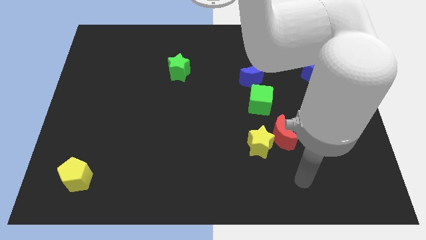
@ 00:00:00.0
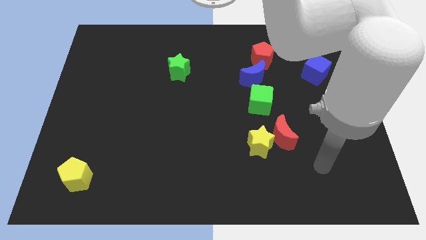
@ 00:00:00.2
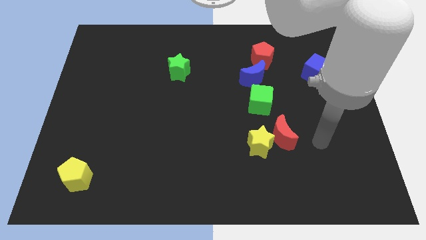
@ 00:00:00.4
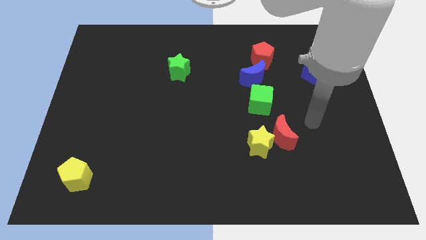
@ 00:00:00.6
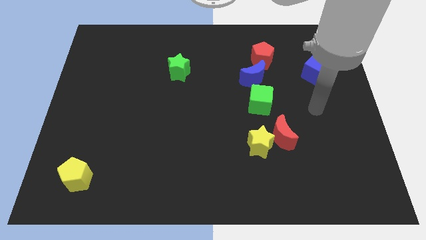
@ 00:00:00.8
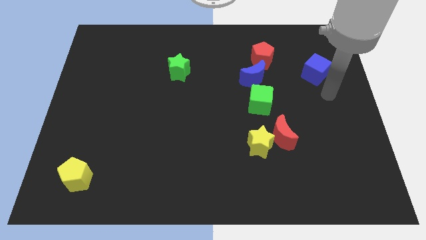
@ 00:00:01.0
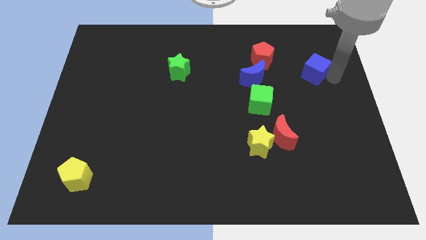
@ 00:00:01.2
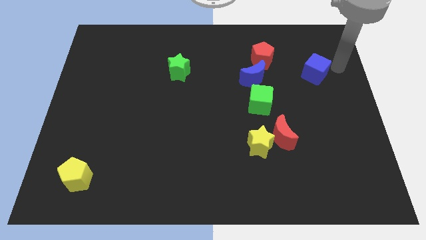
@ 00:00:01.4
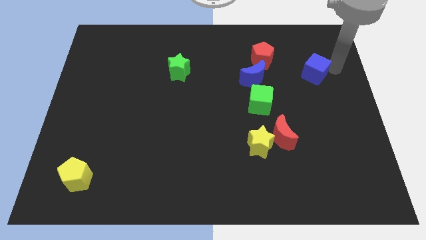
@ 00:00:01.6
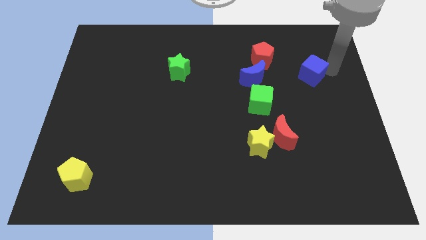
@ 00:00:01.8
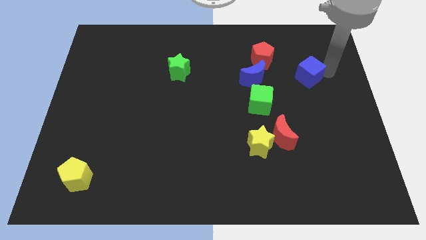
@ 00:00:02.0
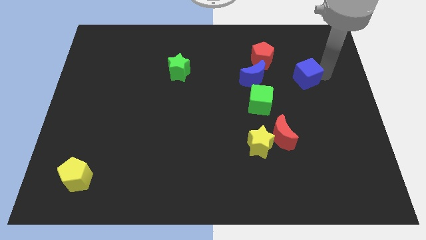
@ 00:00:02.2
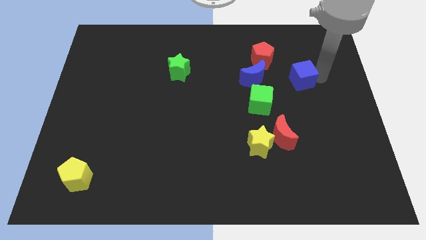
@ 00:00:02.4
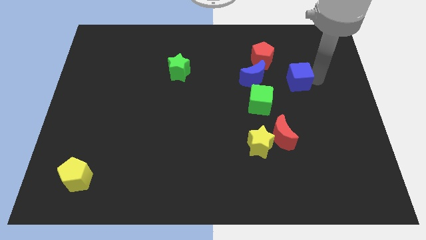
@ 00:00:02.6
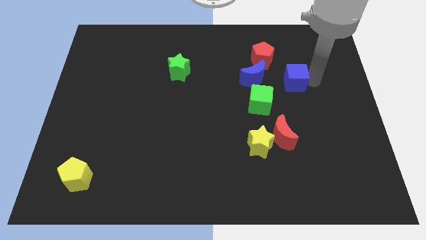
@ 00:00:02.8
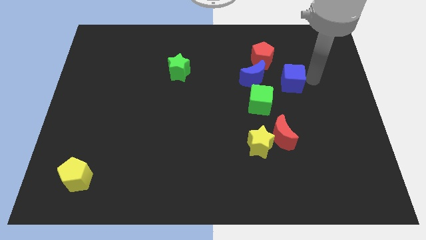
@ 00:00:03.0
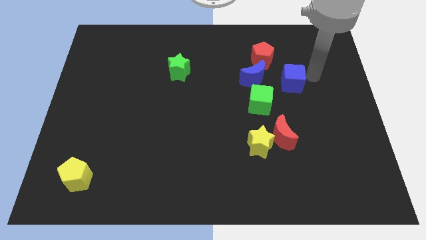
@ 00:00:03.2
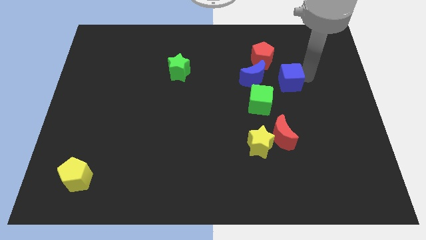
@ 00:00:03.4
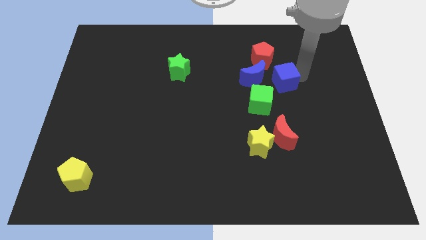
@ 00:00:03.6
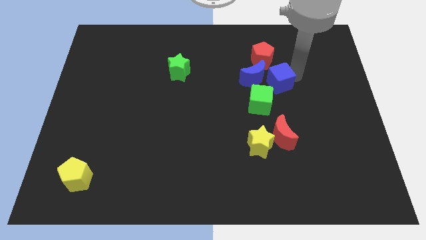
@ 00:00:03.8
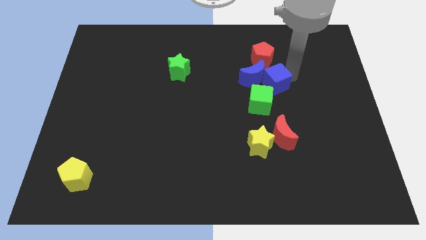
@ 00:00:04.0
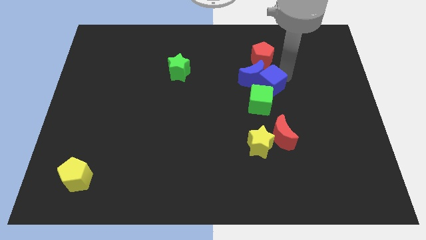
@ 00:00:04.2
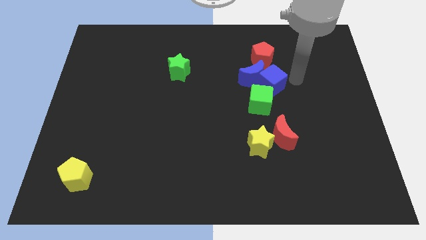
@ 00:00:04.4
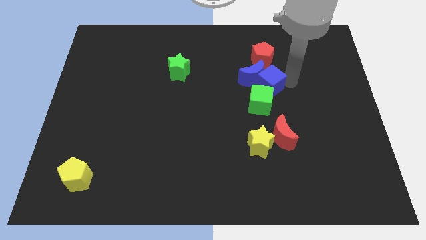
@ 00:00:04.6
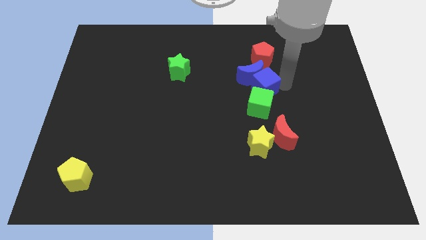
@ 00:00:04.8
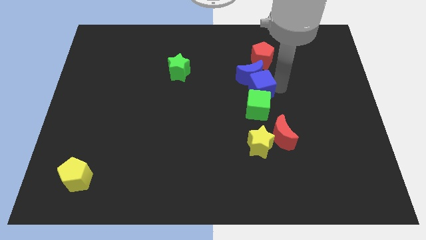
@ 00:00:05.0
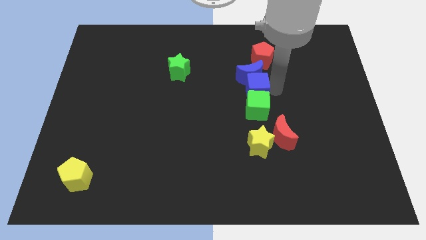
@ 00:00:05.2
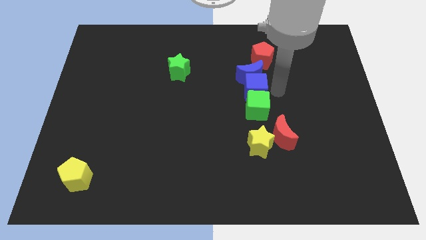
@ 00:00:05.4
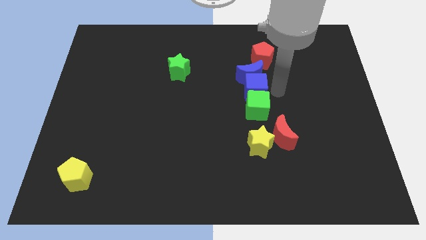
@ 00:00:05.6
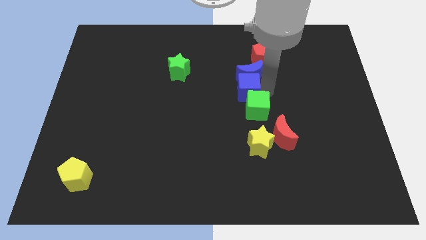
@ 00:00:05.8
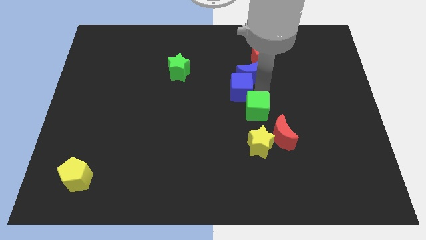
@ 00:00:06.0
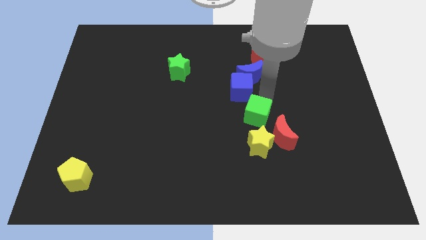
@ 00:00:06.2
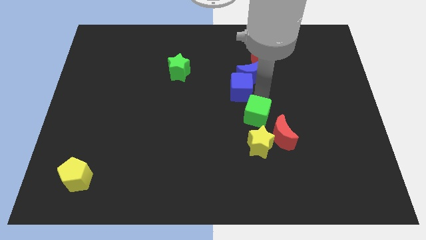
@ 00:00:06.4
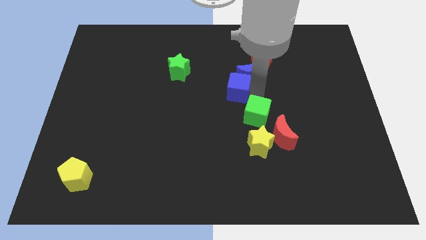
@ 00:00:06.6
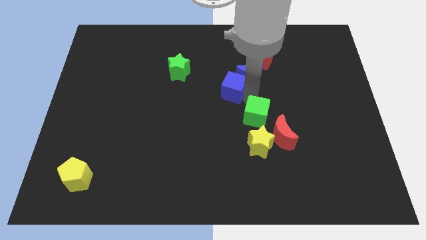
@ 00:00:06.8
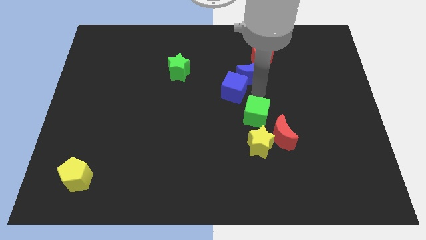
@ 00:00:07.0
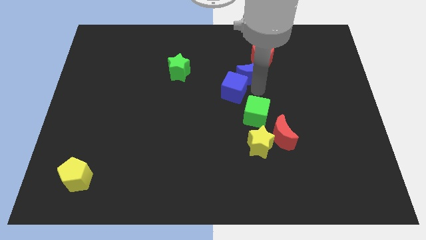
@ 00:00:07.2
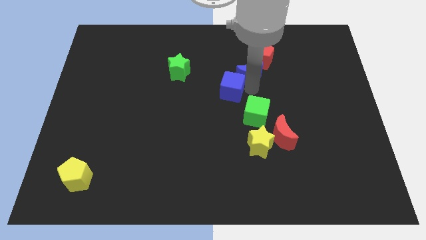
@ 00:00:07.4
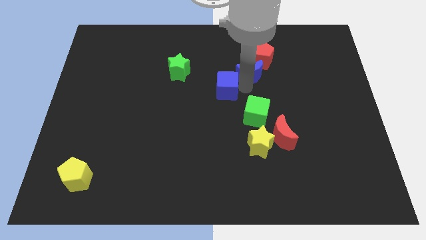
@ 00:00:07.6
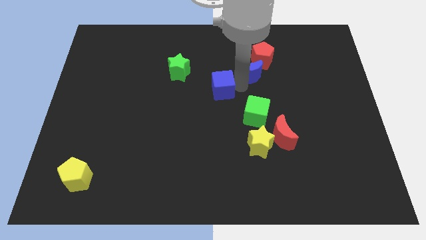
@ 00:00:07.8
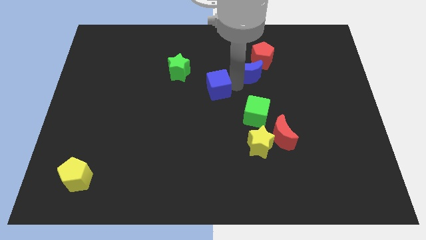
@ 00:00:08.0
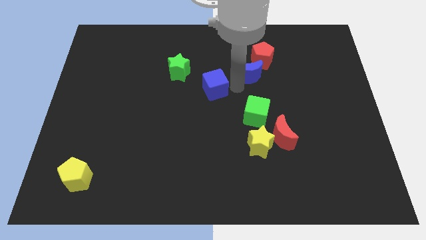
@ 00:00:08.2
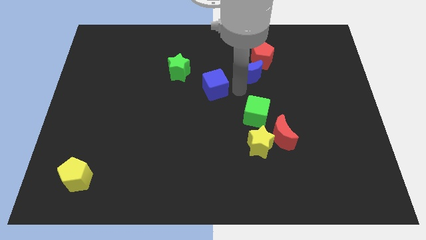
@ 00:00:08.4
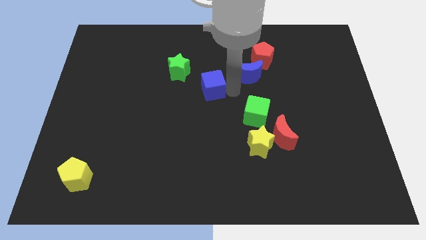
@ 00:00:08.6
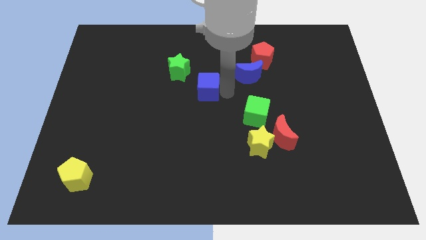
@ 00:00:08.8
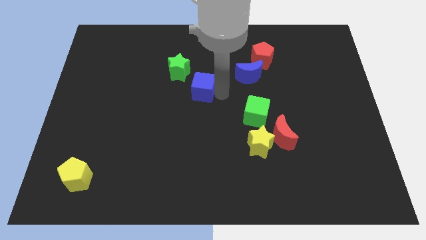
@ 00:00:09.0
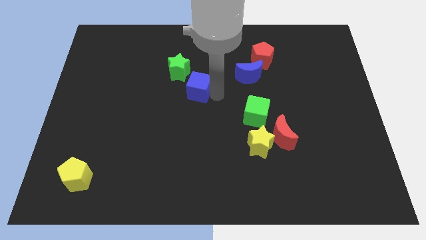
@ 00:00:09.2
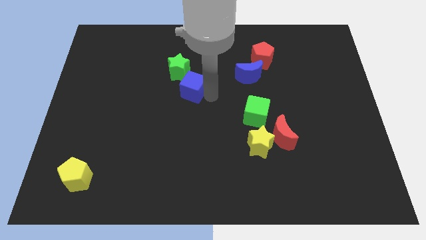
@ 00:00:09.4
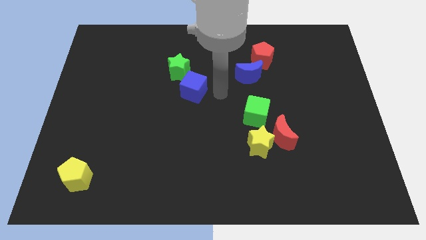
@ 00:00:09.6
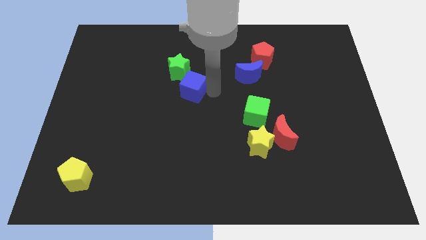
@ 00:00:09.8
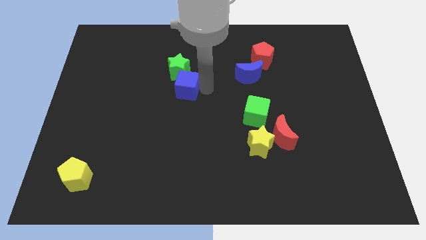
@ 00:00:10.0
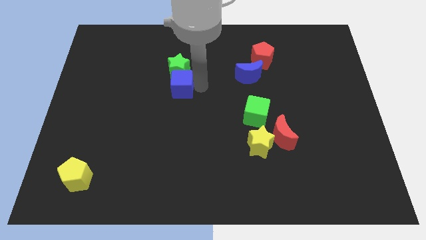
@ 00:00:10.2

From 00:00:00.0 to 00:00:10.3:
put the blue cube diagonally down and to the left of the green star

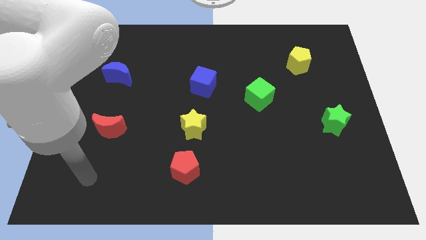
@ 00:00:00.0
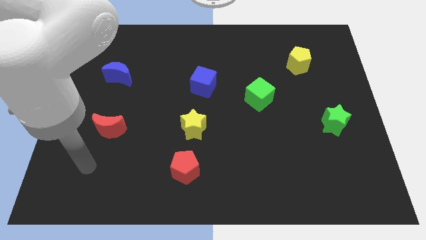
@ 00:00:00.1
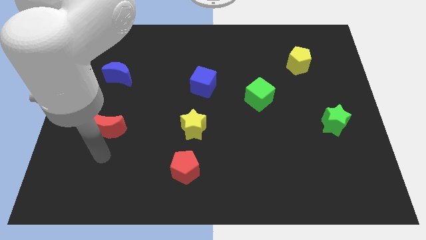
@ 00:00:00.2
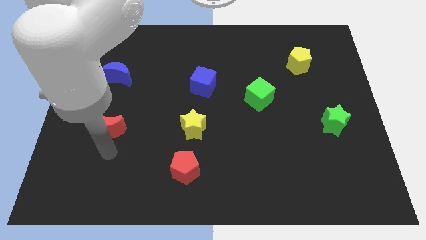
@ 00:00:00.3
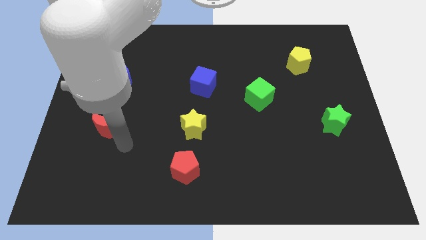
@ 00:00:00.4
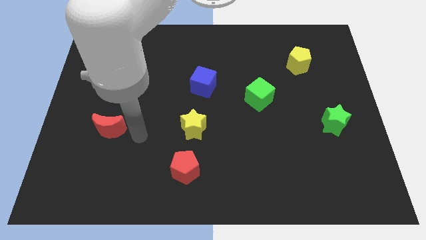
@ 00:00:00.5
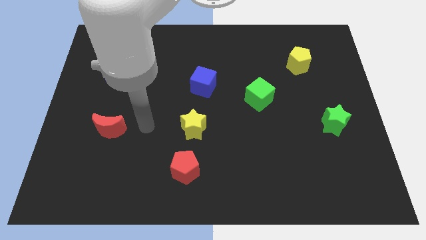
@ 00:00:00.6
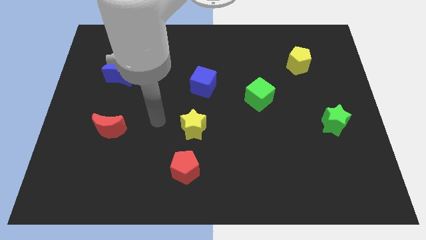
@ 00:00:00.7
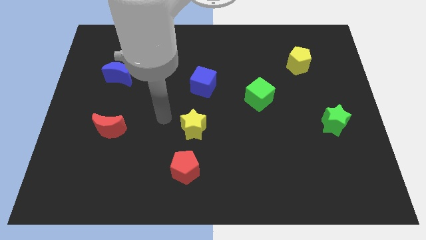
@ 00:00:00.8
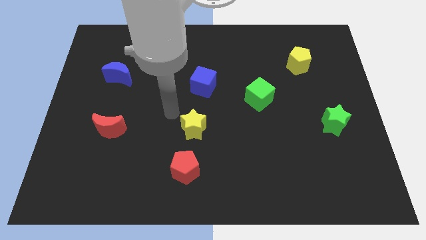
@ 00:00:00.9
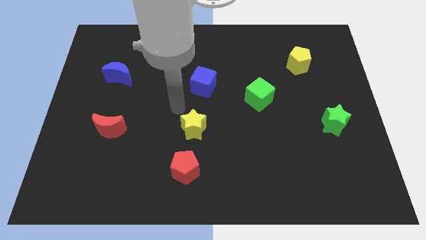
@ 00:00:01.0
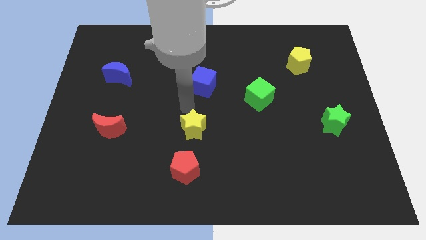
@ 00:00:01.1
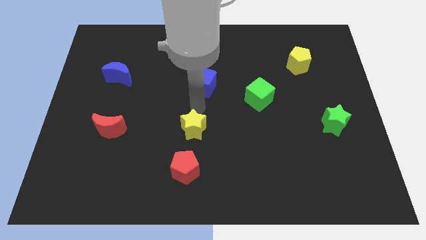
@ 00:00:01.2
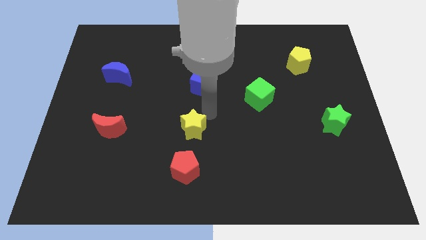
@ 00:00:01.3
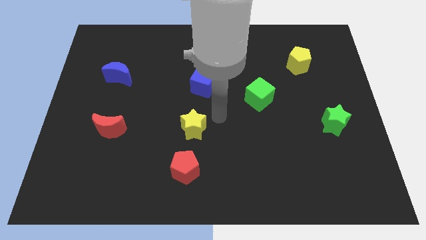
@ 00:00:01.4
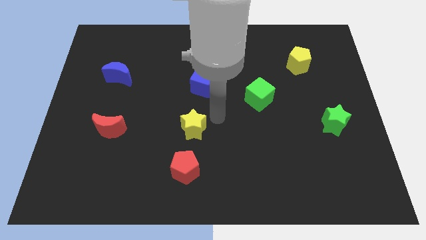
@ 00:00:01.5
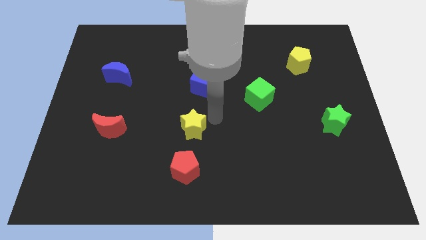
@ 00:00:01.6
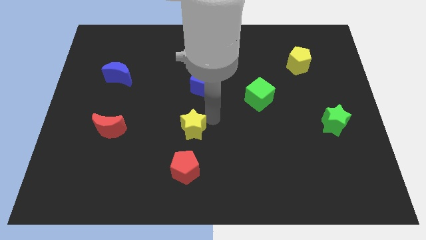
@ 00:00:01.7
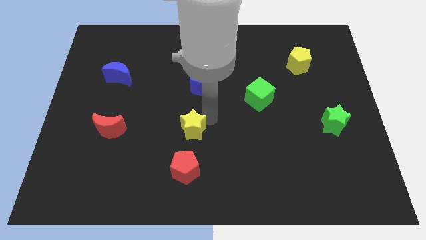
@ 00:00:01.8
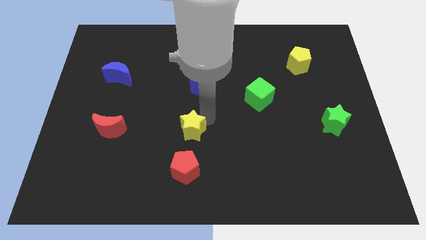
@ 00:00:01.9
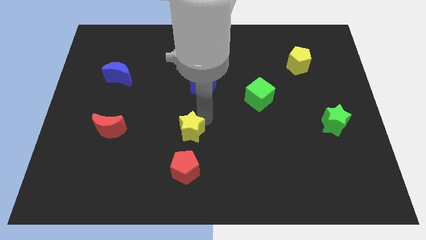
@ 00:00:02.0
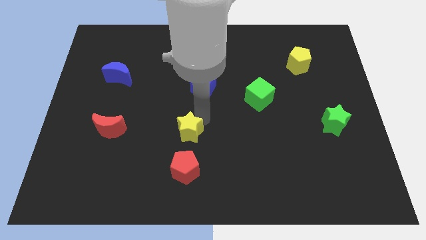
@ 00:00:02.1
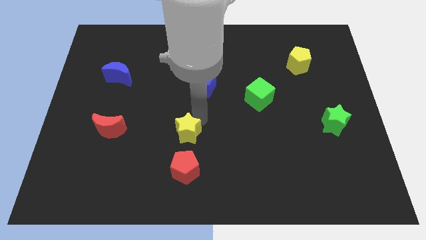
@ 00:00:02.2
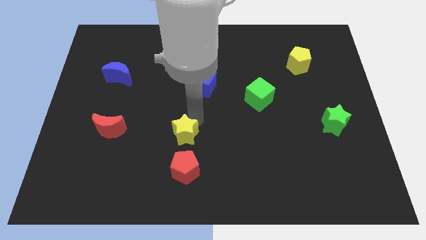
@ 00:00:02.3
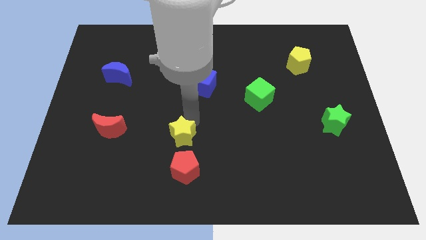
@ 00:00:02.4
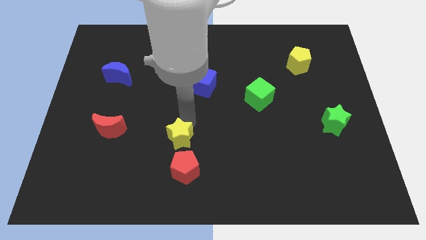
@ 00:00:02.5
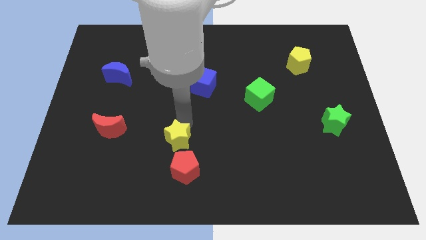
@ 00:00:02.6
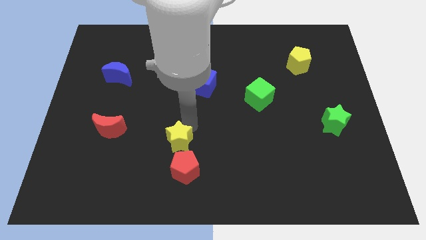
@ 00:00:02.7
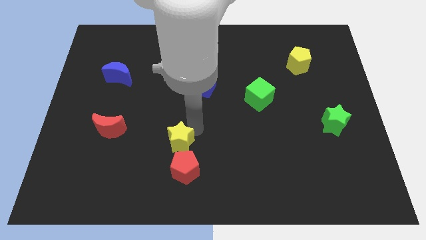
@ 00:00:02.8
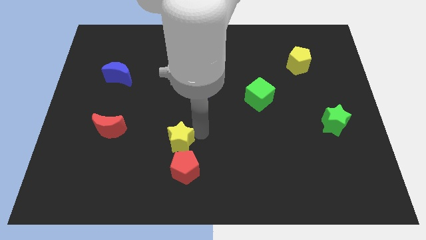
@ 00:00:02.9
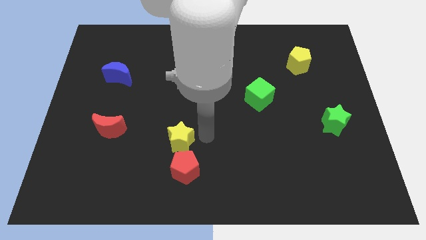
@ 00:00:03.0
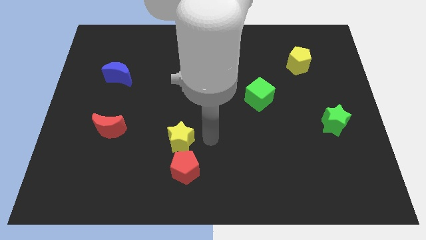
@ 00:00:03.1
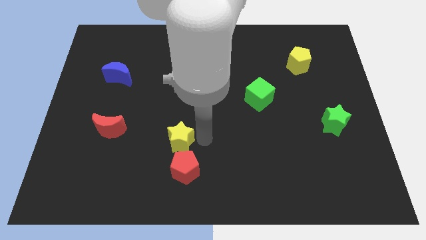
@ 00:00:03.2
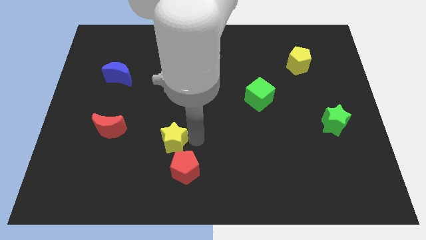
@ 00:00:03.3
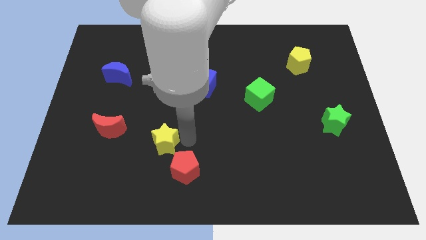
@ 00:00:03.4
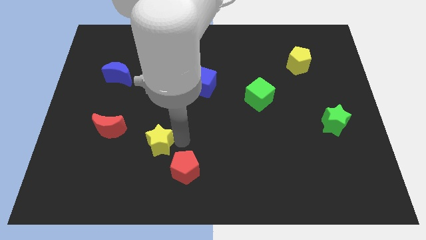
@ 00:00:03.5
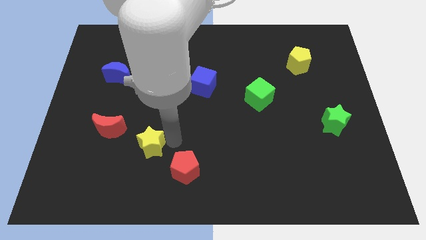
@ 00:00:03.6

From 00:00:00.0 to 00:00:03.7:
slide the yellow star to the bottom right of the red moon
